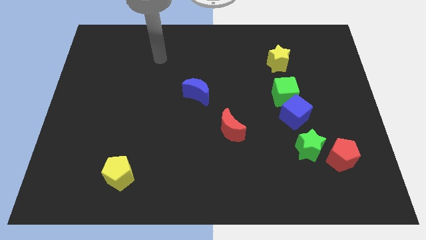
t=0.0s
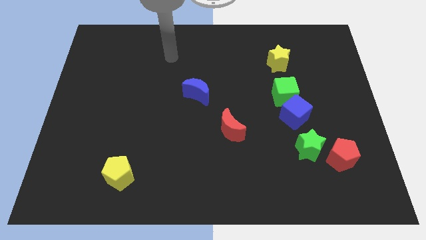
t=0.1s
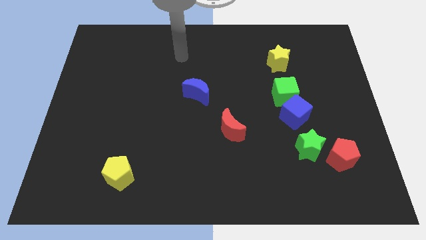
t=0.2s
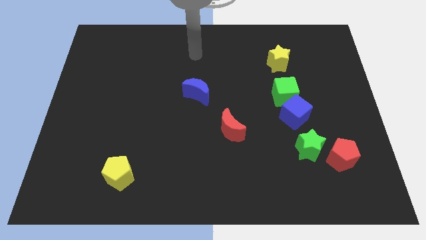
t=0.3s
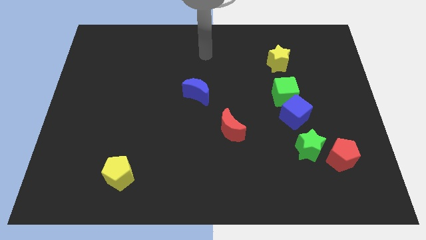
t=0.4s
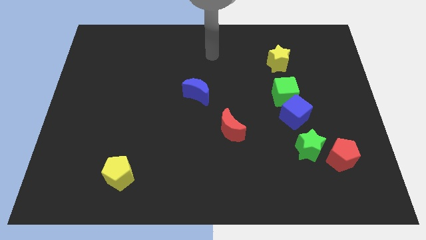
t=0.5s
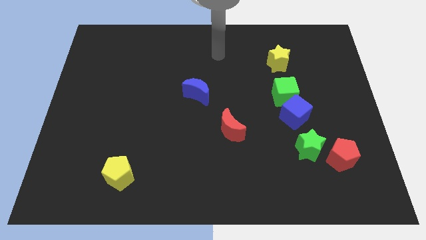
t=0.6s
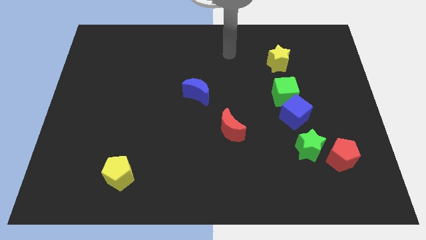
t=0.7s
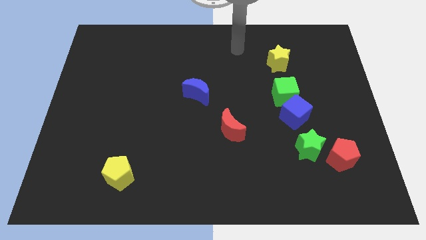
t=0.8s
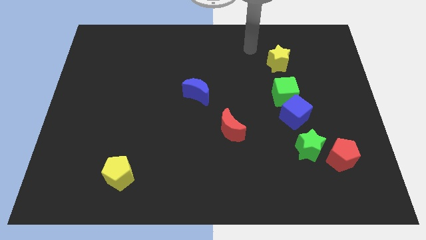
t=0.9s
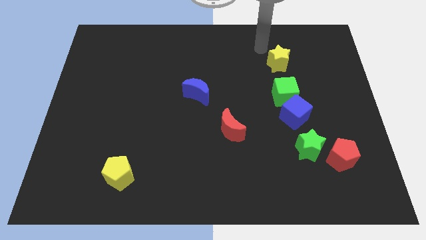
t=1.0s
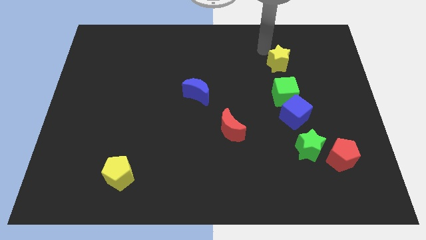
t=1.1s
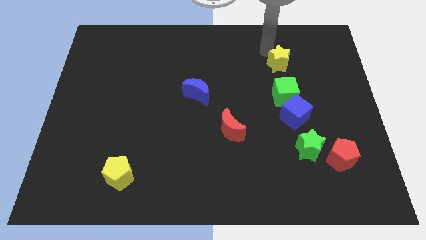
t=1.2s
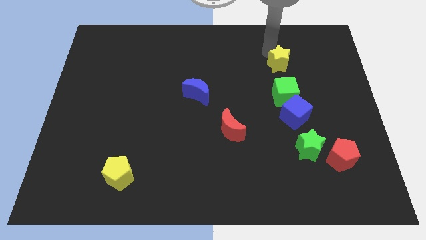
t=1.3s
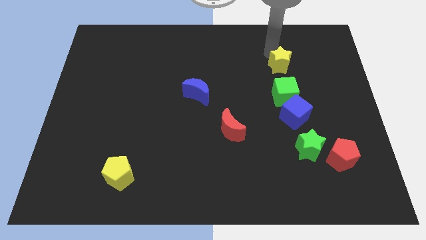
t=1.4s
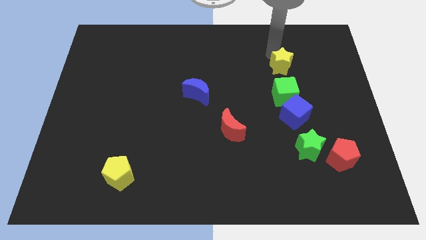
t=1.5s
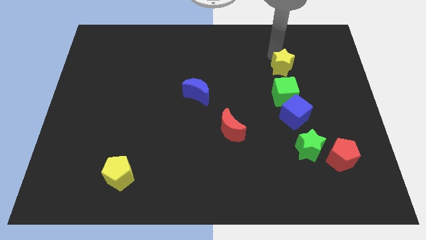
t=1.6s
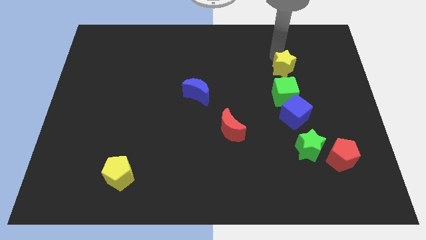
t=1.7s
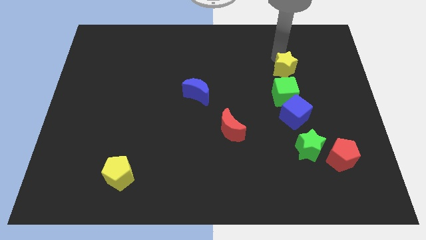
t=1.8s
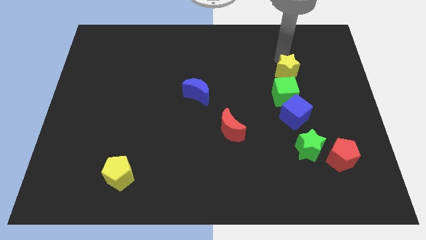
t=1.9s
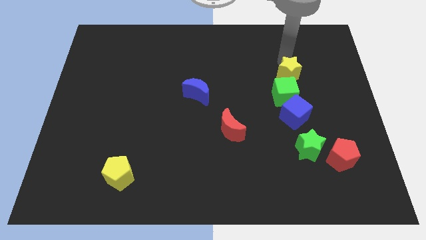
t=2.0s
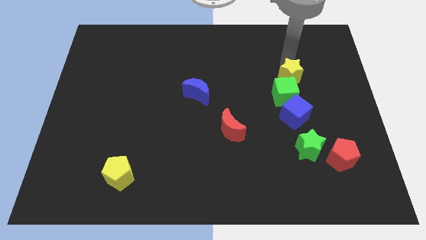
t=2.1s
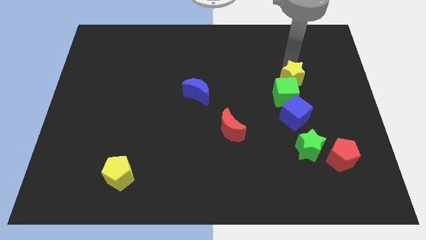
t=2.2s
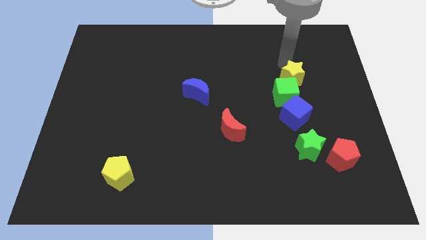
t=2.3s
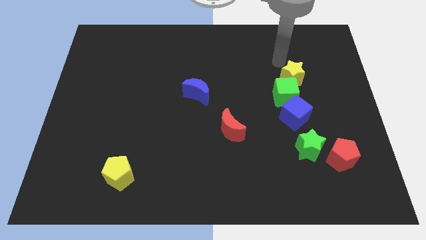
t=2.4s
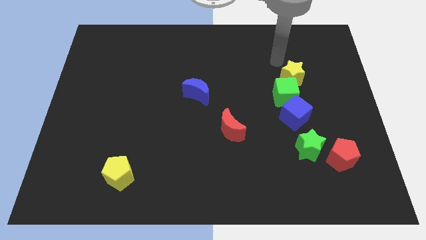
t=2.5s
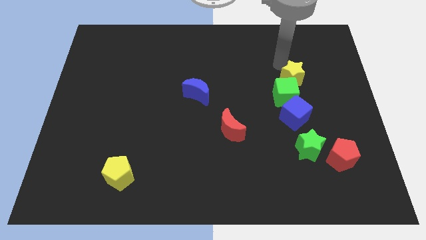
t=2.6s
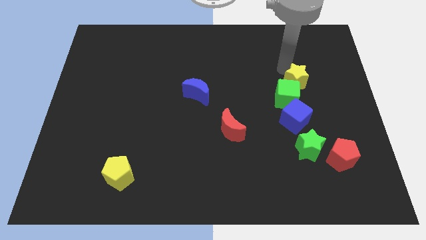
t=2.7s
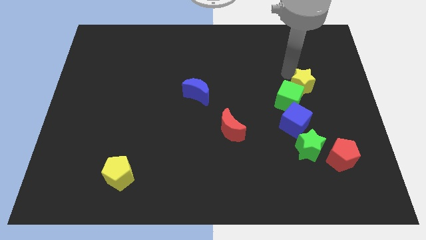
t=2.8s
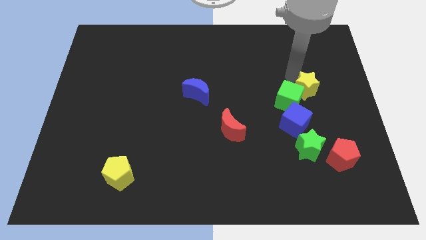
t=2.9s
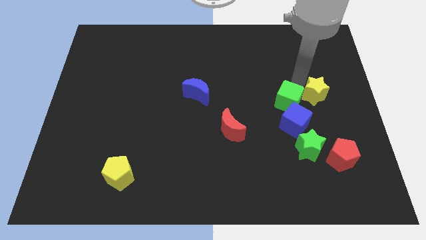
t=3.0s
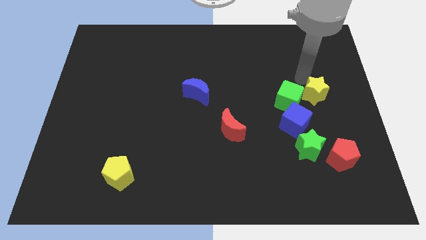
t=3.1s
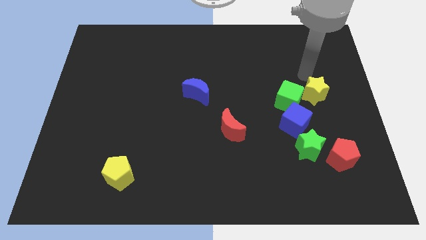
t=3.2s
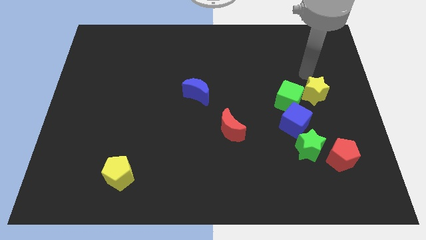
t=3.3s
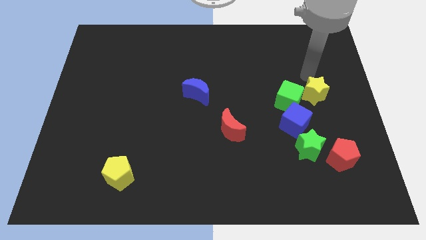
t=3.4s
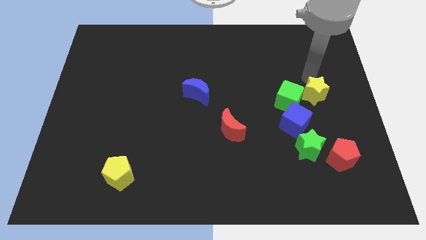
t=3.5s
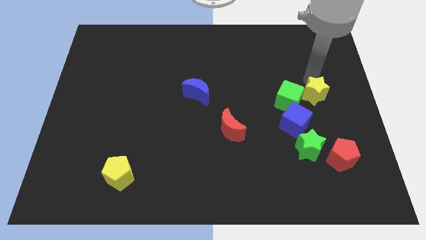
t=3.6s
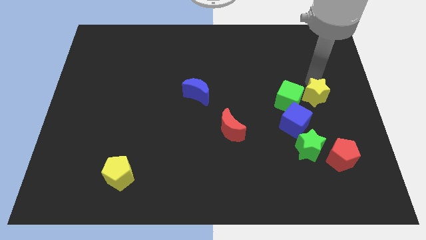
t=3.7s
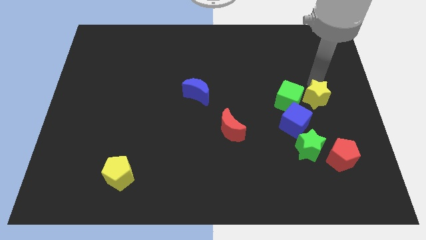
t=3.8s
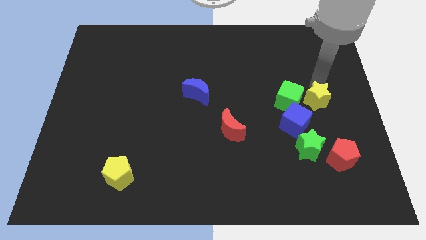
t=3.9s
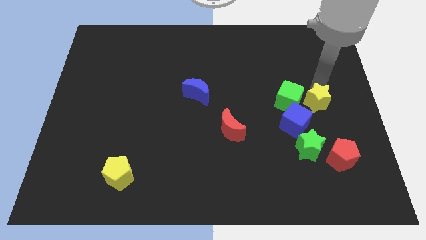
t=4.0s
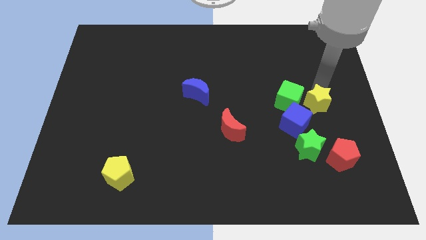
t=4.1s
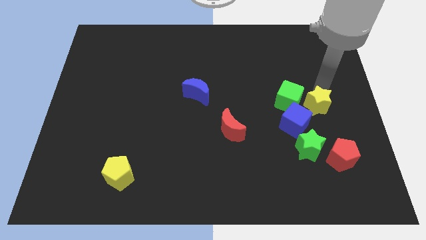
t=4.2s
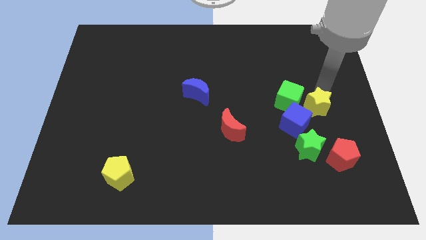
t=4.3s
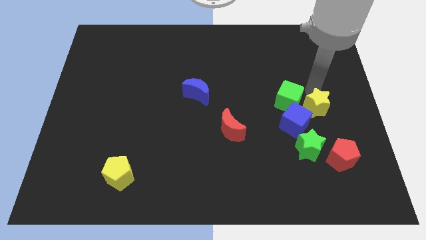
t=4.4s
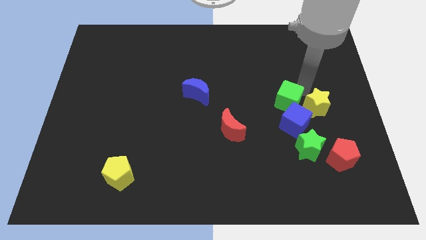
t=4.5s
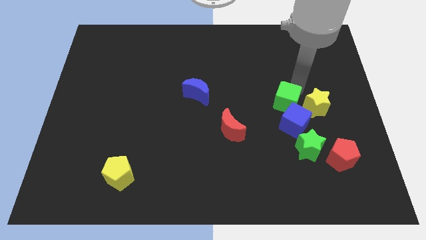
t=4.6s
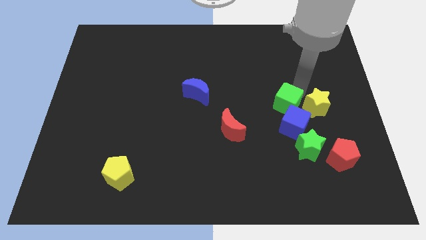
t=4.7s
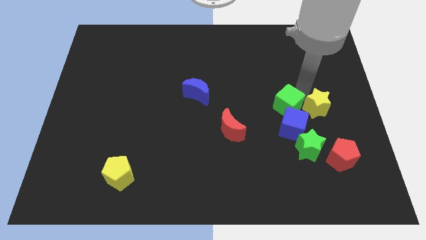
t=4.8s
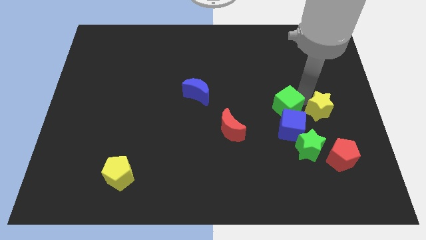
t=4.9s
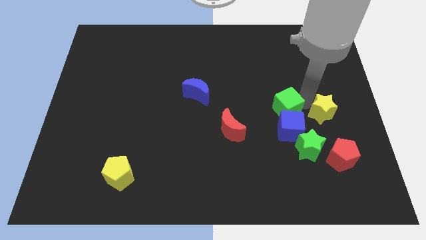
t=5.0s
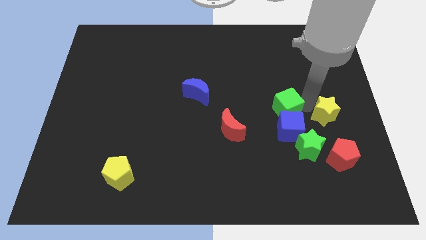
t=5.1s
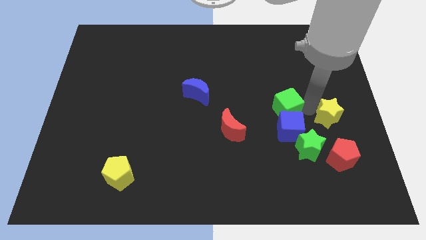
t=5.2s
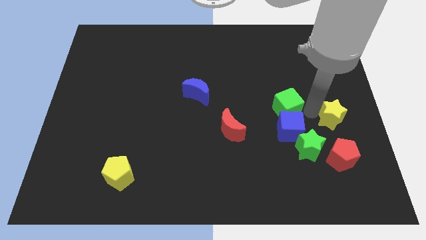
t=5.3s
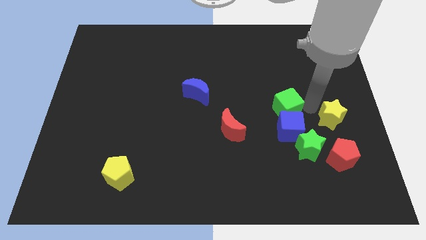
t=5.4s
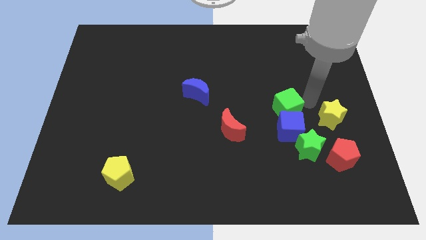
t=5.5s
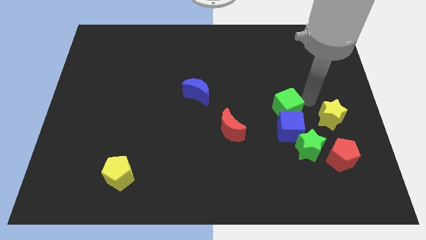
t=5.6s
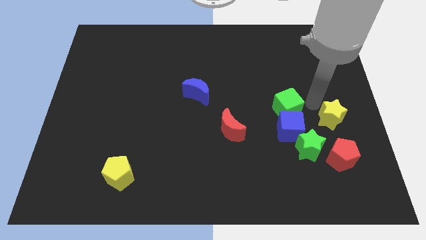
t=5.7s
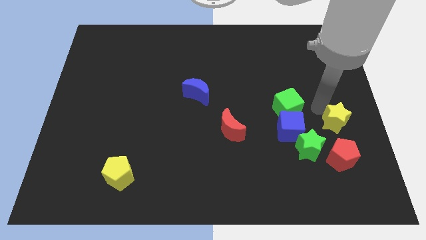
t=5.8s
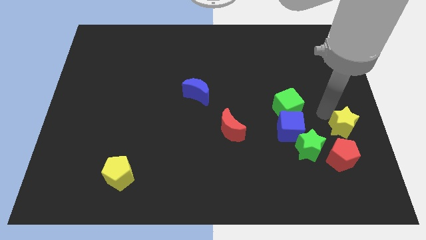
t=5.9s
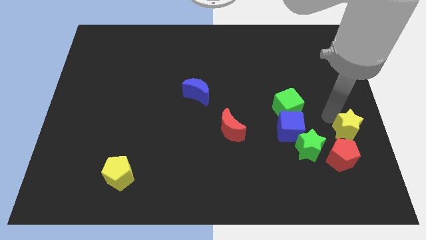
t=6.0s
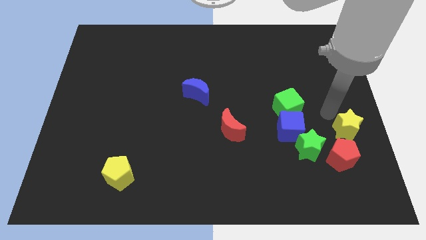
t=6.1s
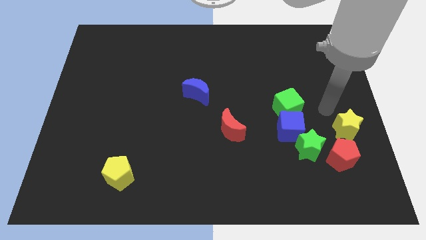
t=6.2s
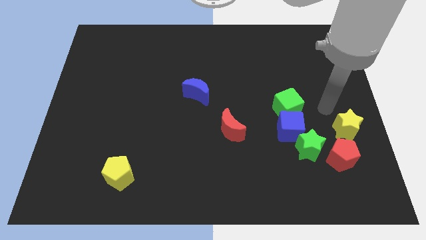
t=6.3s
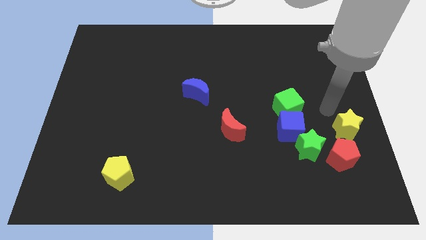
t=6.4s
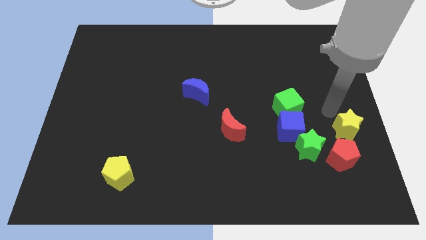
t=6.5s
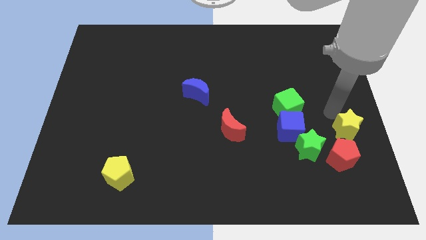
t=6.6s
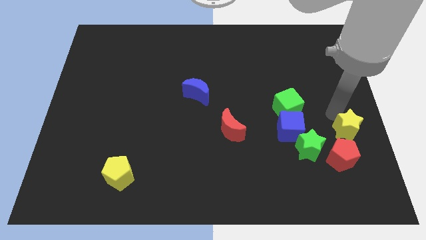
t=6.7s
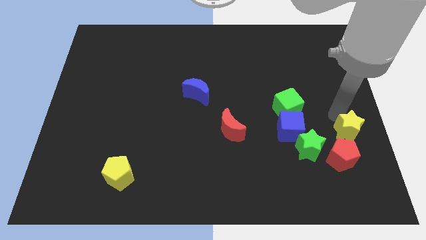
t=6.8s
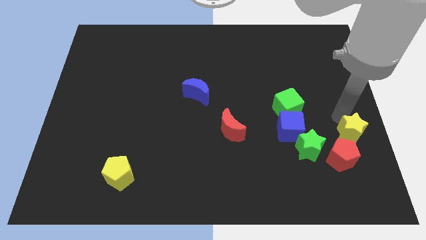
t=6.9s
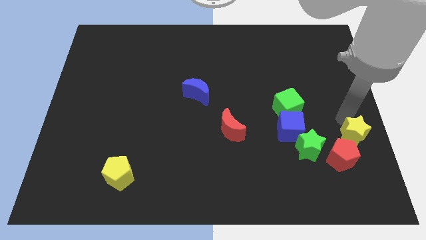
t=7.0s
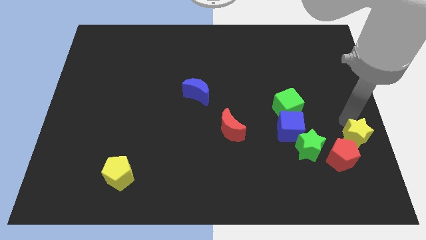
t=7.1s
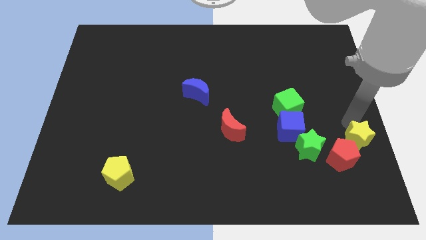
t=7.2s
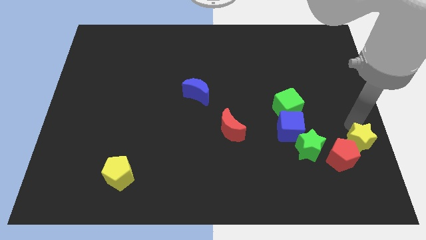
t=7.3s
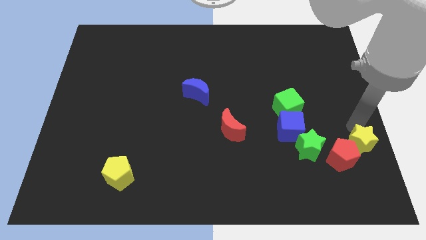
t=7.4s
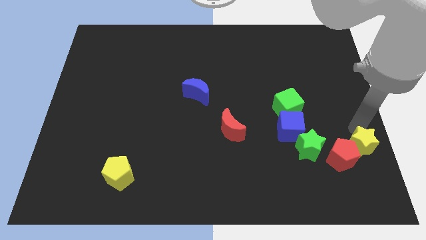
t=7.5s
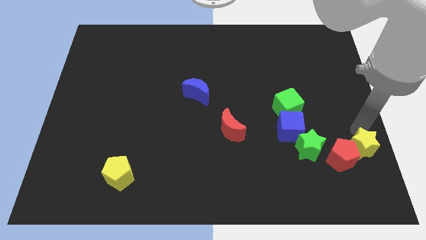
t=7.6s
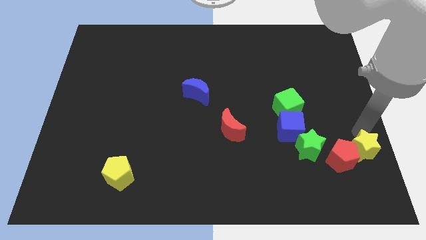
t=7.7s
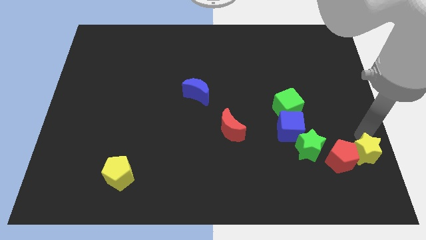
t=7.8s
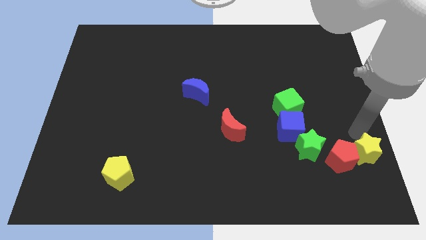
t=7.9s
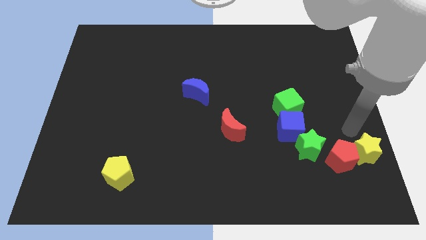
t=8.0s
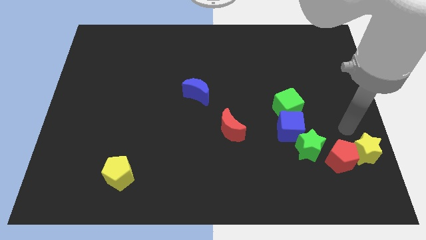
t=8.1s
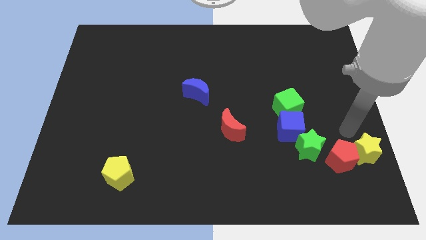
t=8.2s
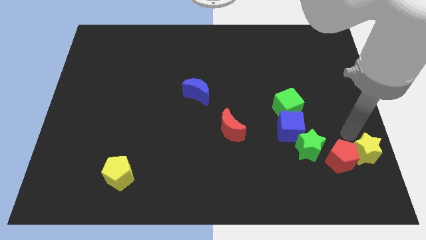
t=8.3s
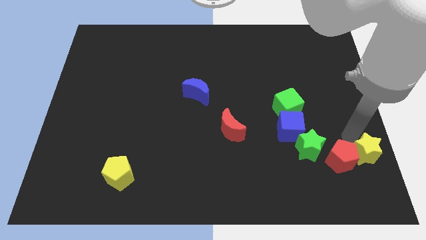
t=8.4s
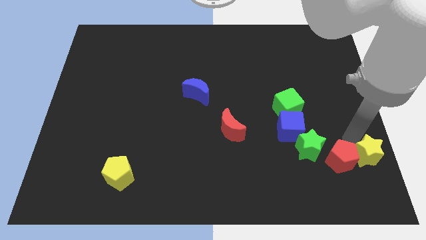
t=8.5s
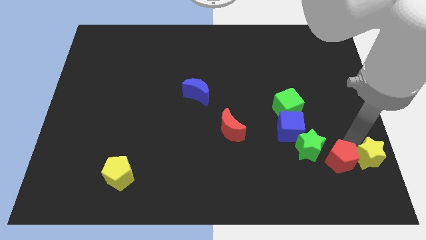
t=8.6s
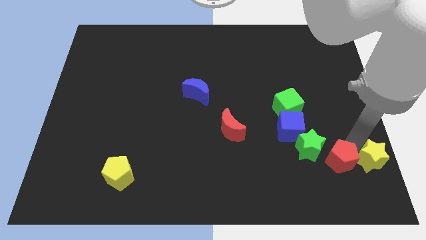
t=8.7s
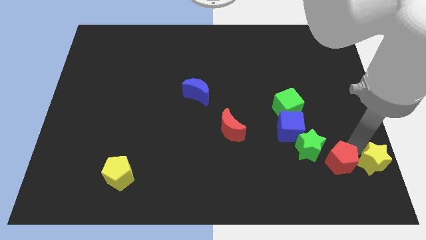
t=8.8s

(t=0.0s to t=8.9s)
slide the yellow star to the lower right corner
